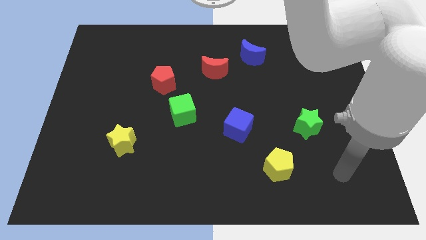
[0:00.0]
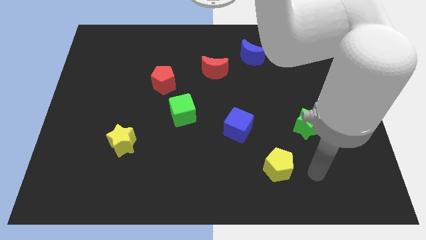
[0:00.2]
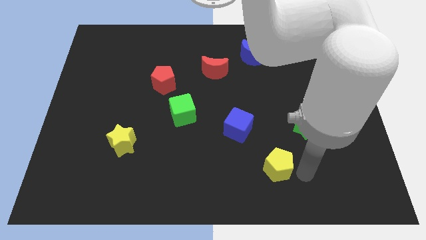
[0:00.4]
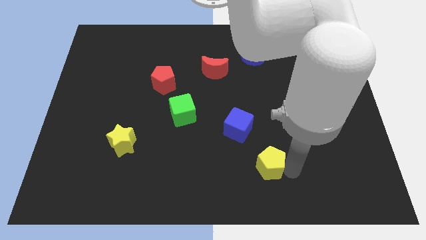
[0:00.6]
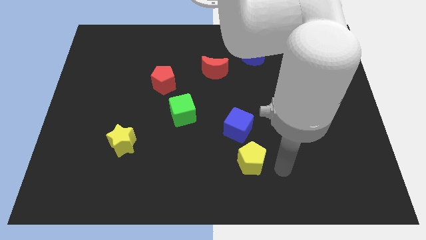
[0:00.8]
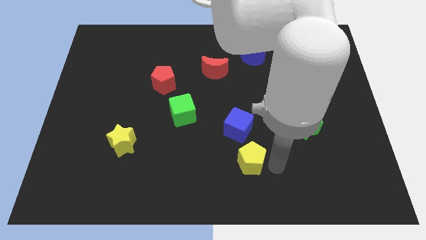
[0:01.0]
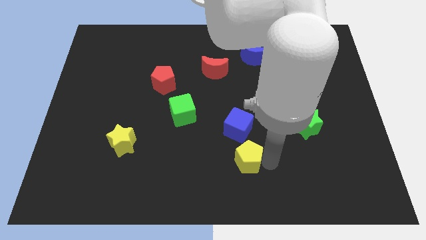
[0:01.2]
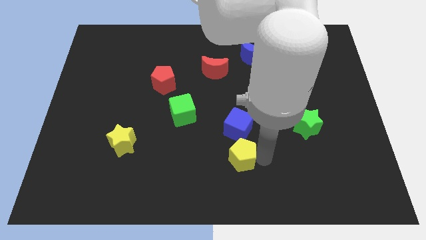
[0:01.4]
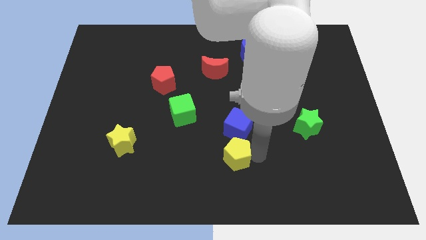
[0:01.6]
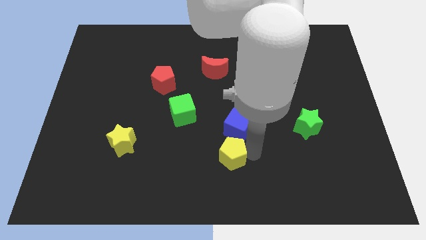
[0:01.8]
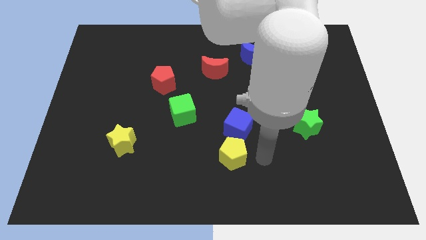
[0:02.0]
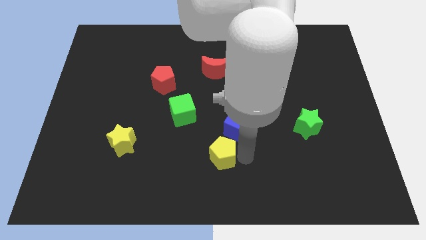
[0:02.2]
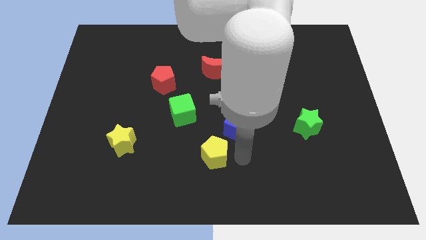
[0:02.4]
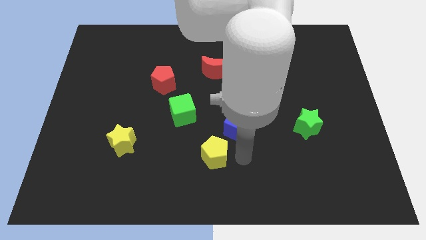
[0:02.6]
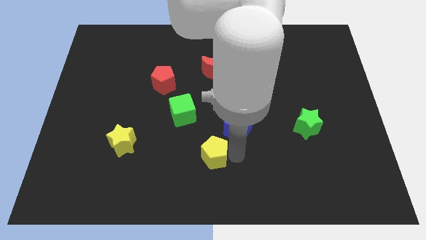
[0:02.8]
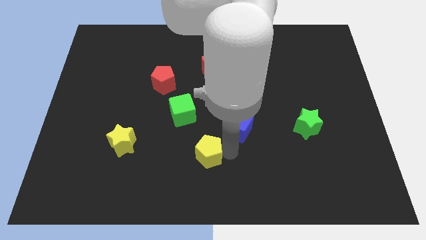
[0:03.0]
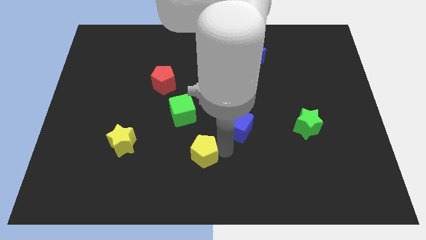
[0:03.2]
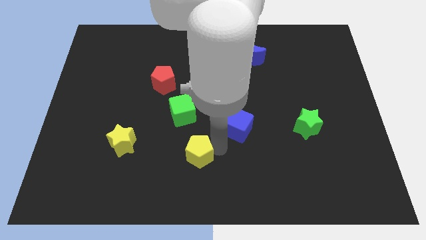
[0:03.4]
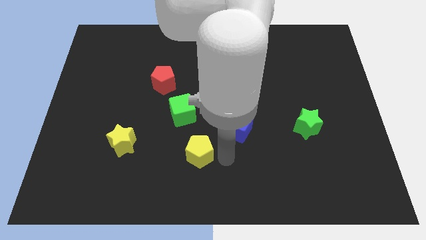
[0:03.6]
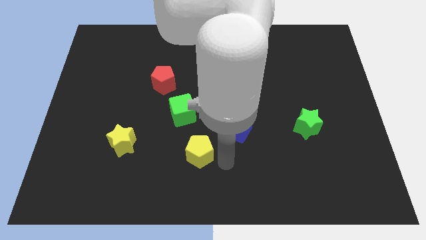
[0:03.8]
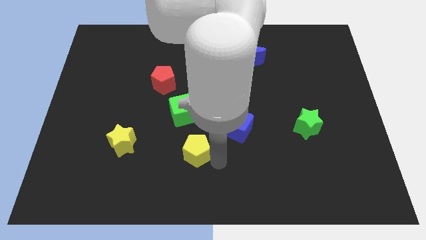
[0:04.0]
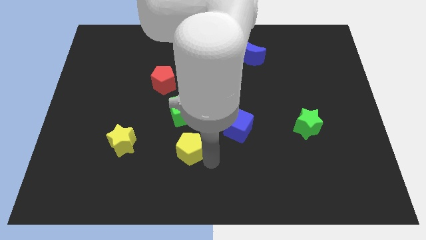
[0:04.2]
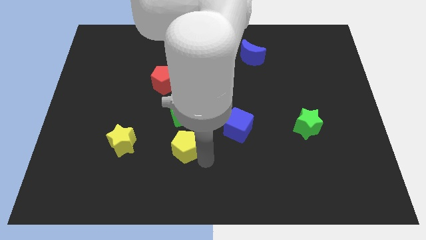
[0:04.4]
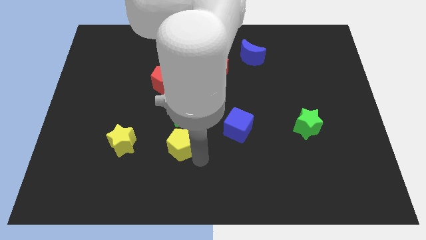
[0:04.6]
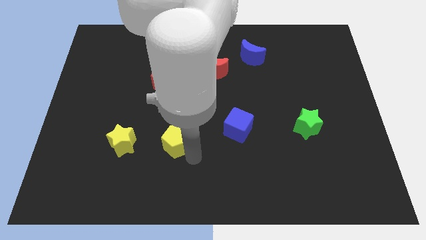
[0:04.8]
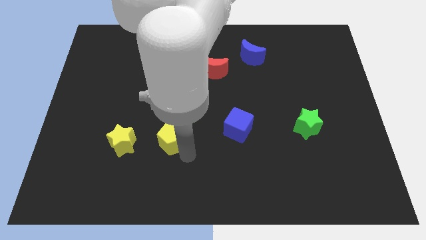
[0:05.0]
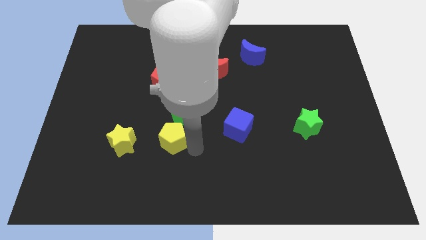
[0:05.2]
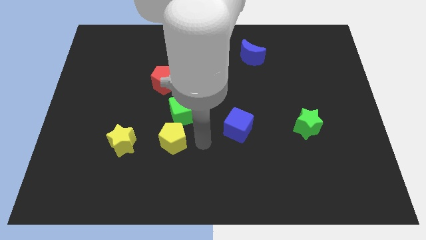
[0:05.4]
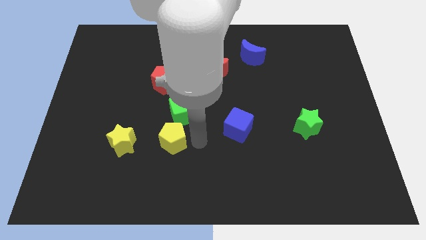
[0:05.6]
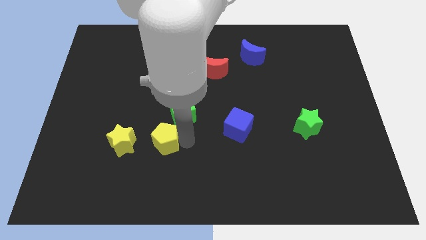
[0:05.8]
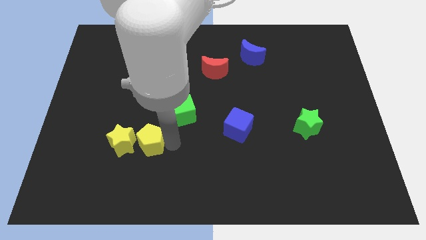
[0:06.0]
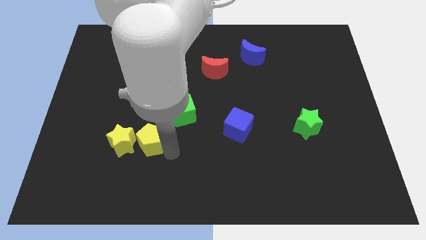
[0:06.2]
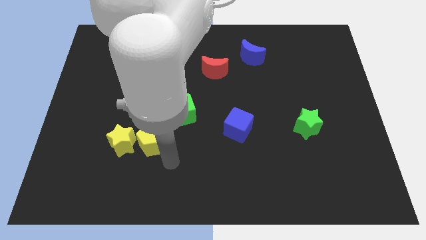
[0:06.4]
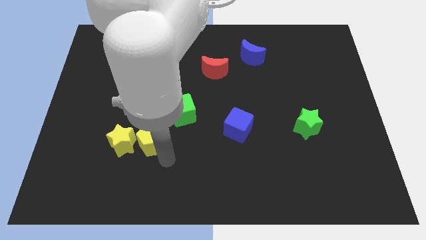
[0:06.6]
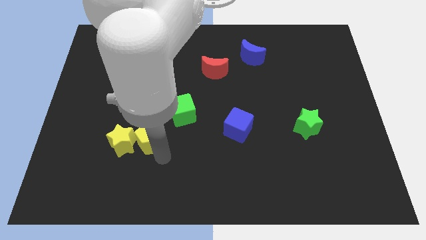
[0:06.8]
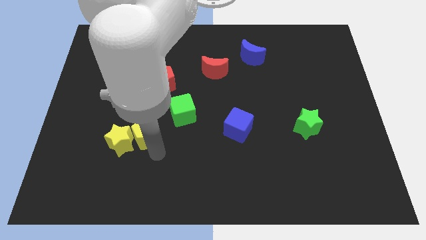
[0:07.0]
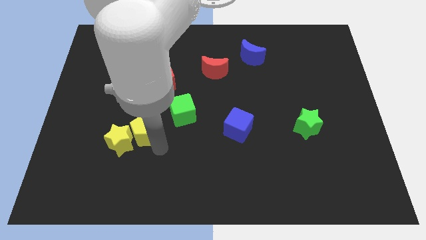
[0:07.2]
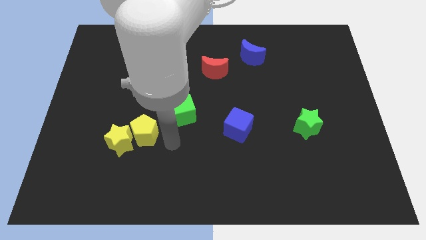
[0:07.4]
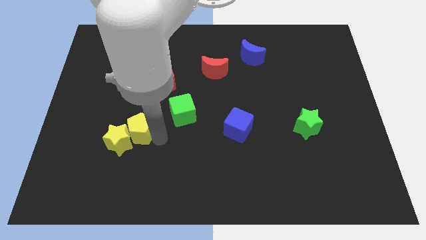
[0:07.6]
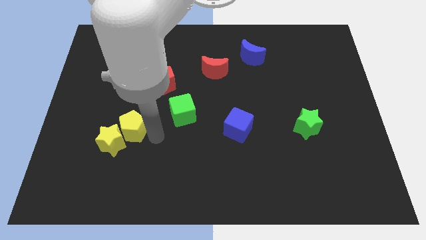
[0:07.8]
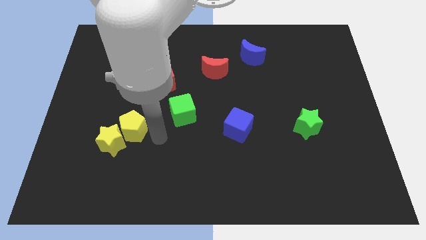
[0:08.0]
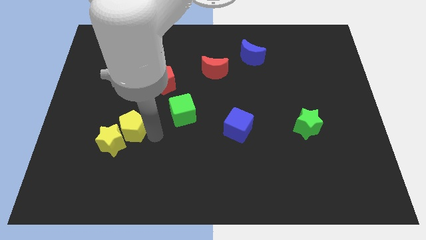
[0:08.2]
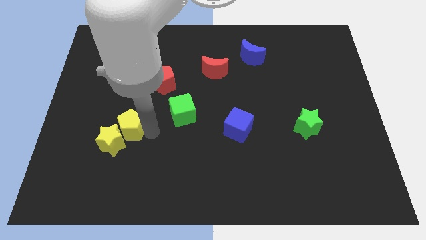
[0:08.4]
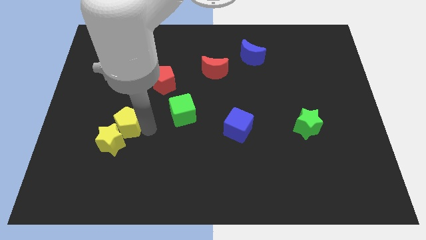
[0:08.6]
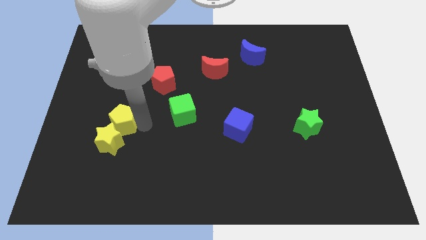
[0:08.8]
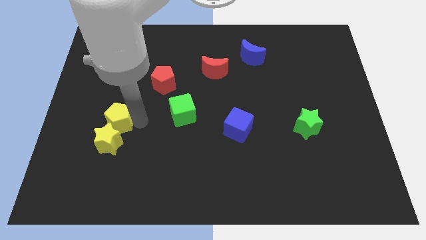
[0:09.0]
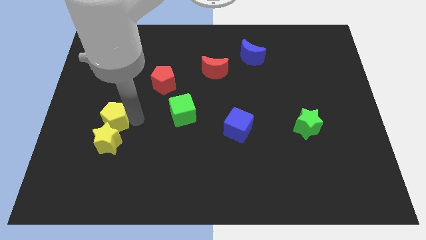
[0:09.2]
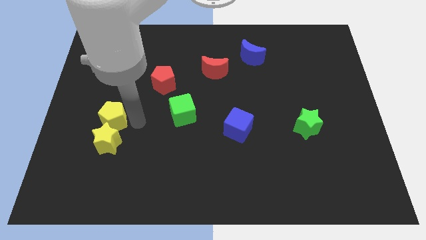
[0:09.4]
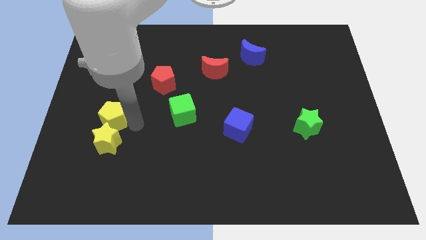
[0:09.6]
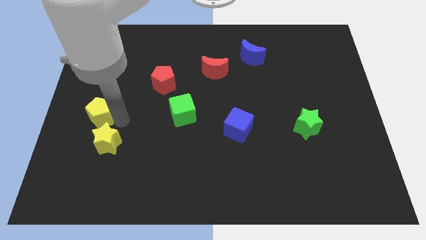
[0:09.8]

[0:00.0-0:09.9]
put the yellow pentagon to the center left

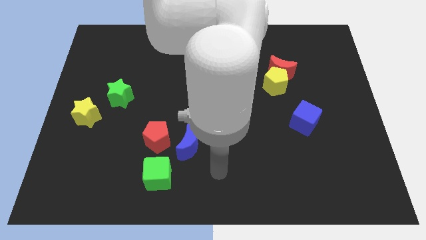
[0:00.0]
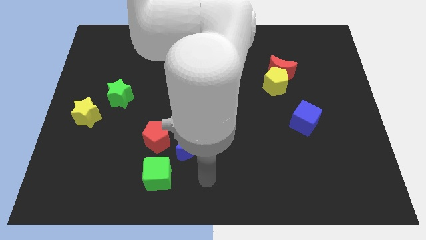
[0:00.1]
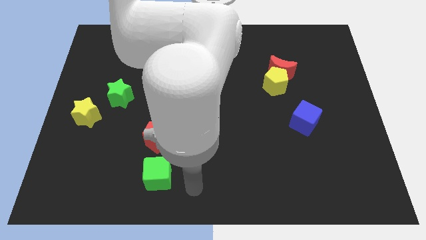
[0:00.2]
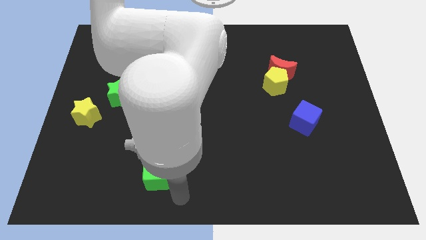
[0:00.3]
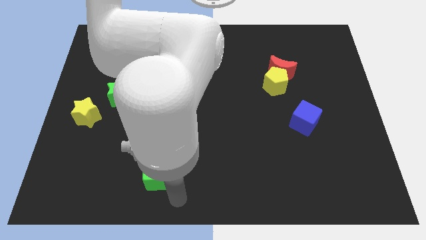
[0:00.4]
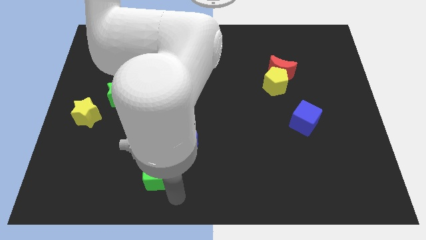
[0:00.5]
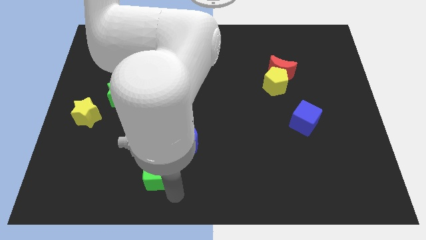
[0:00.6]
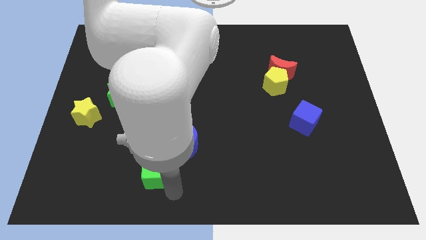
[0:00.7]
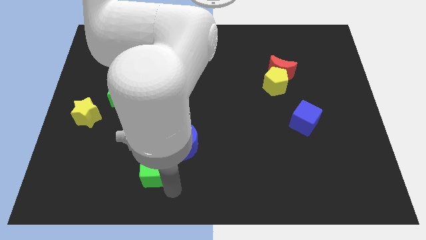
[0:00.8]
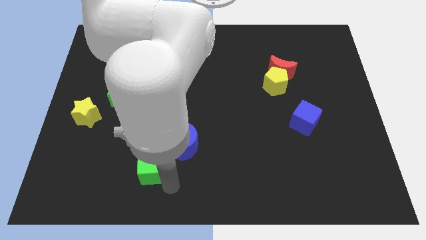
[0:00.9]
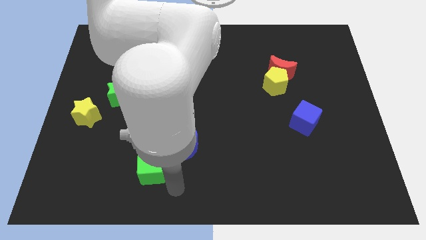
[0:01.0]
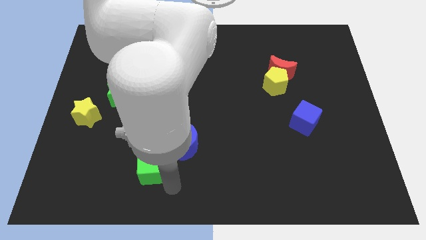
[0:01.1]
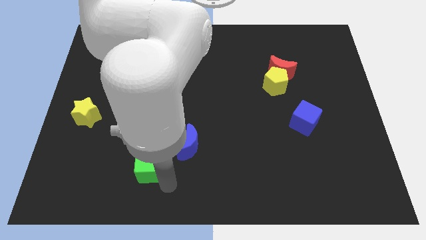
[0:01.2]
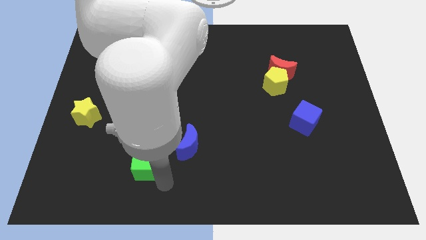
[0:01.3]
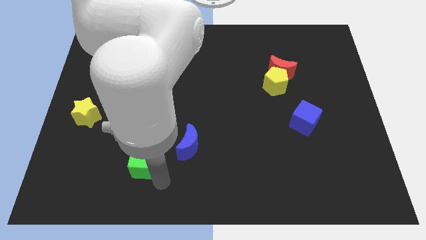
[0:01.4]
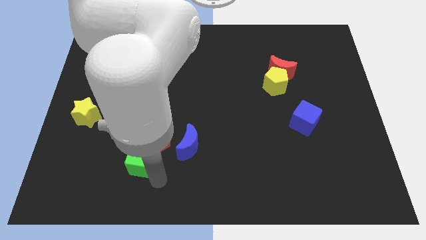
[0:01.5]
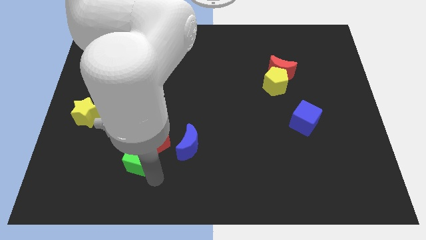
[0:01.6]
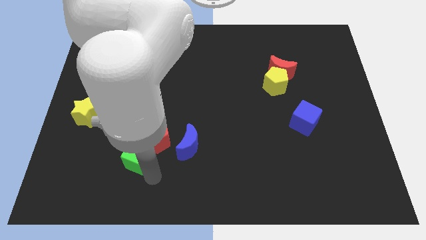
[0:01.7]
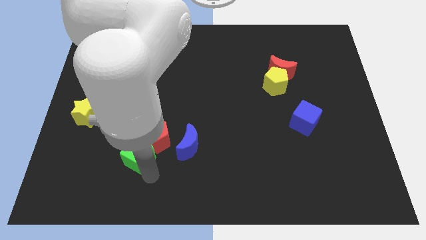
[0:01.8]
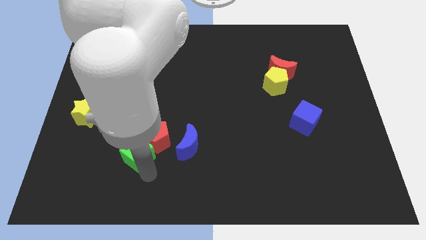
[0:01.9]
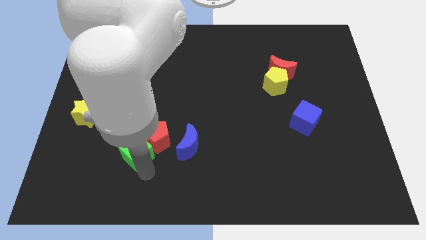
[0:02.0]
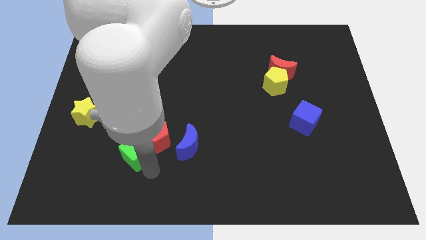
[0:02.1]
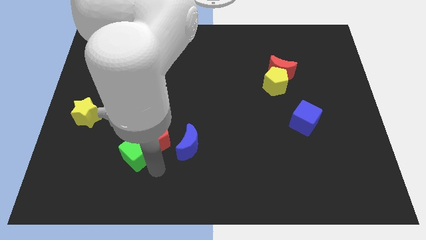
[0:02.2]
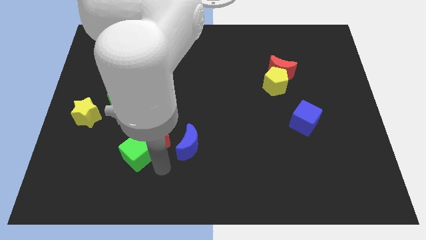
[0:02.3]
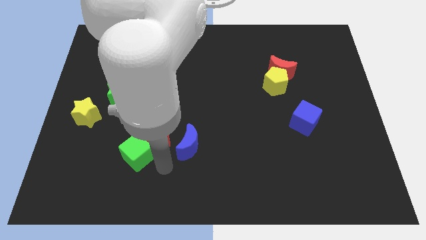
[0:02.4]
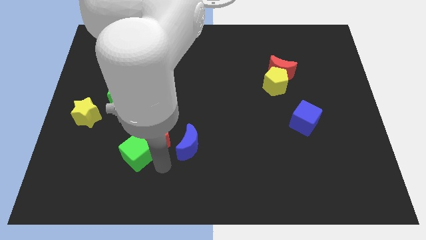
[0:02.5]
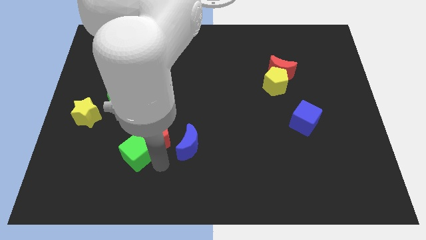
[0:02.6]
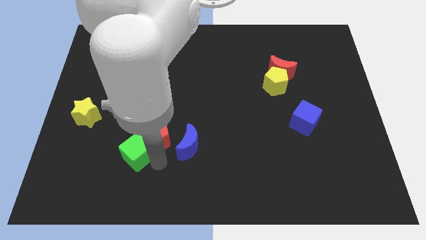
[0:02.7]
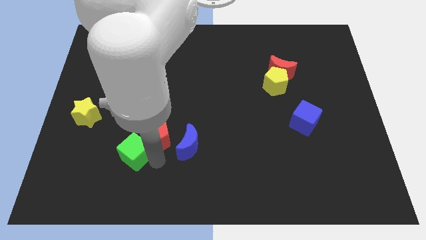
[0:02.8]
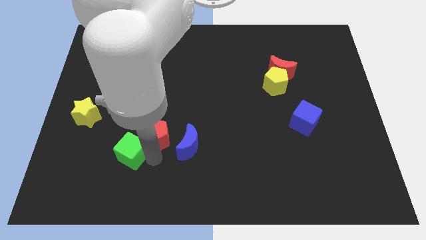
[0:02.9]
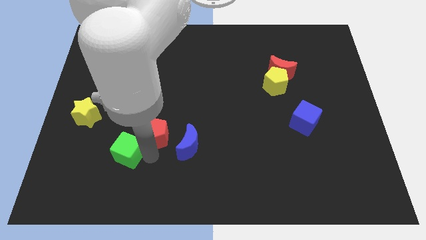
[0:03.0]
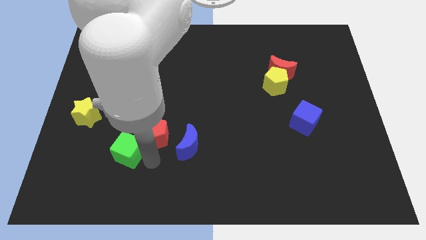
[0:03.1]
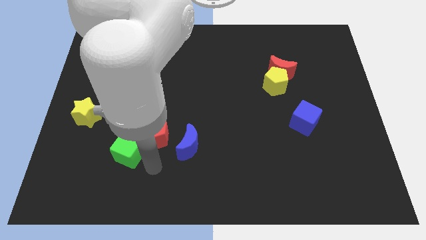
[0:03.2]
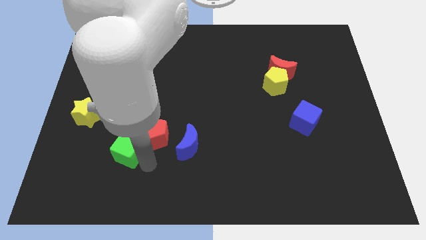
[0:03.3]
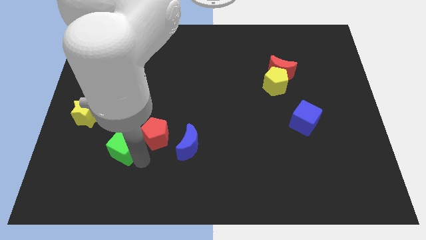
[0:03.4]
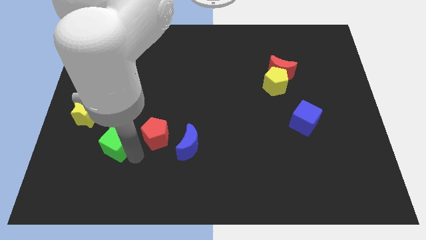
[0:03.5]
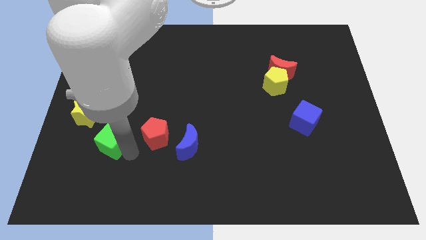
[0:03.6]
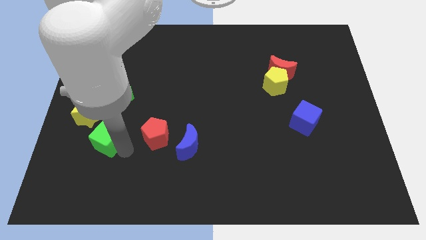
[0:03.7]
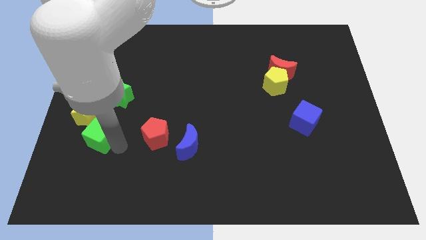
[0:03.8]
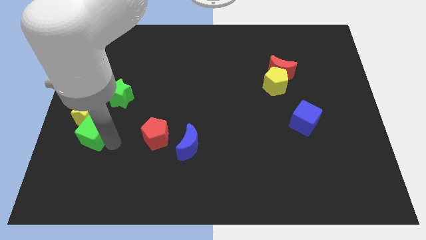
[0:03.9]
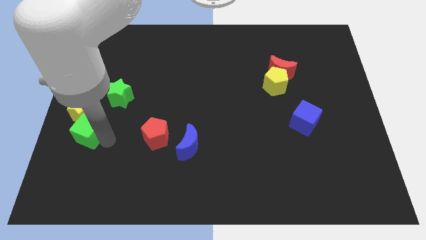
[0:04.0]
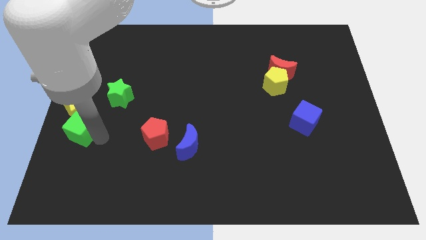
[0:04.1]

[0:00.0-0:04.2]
put the green cube to the left side of the board

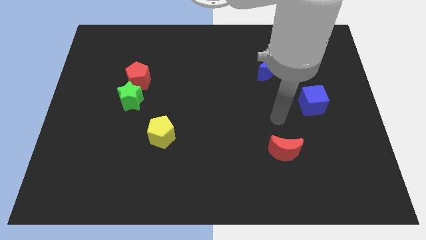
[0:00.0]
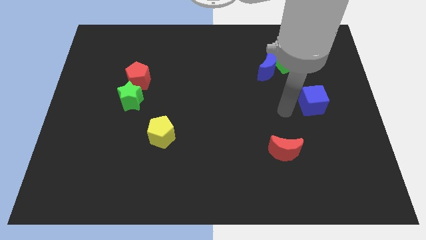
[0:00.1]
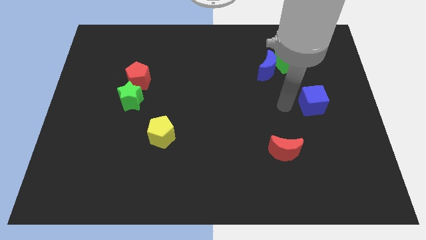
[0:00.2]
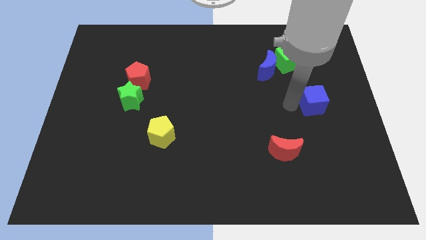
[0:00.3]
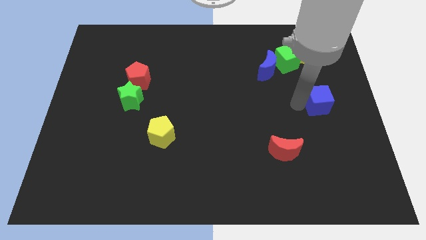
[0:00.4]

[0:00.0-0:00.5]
slide the blue cube to the right side
